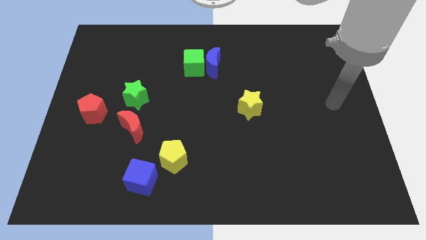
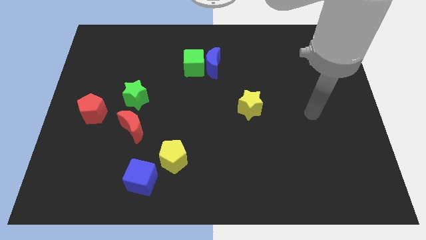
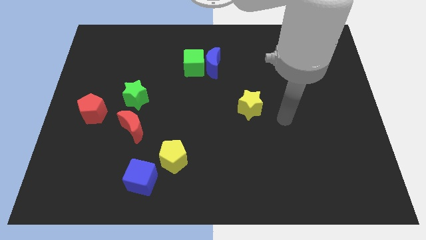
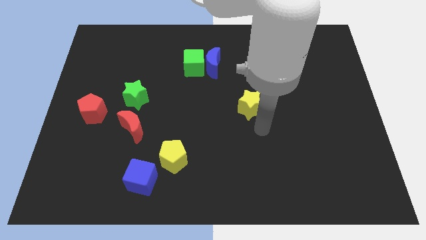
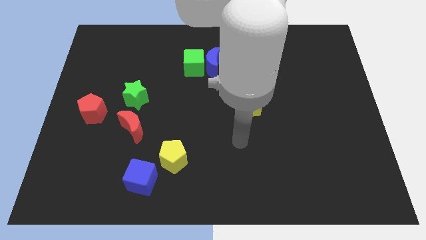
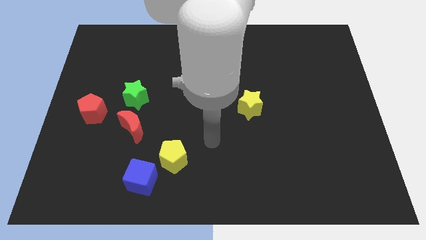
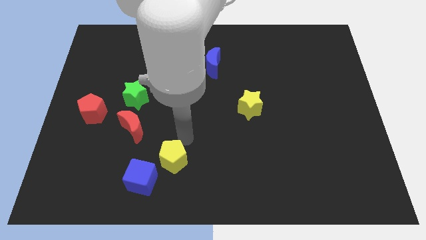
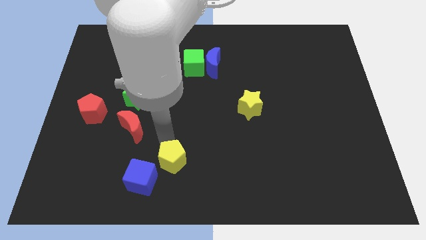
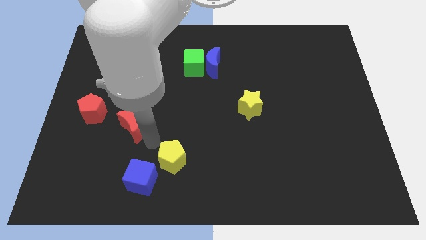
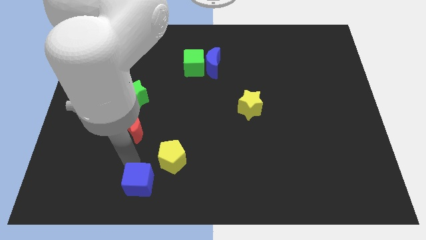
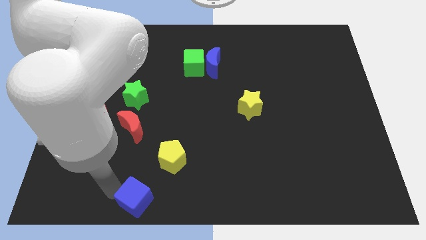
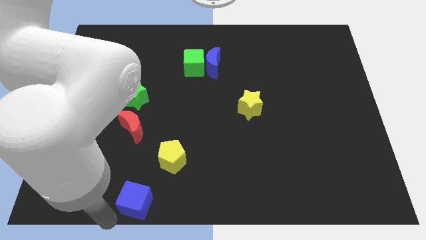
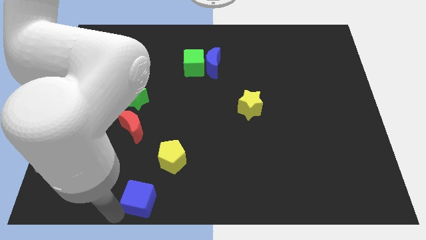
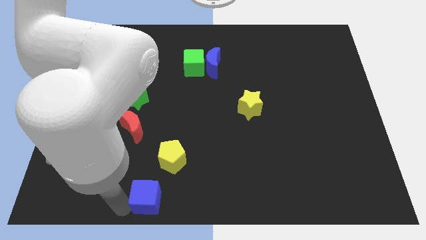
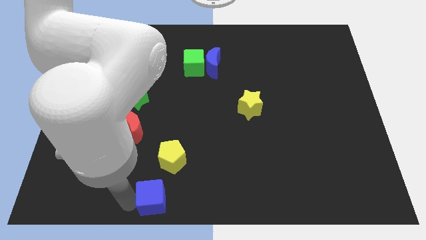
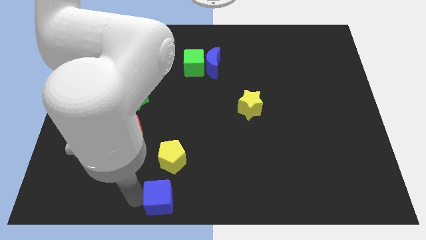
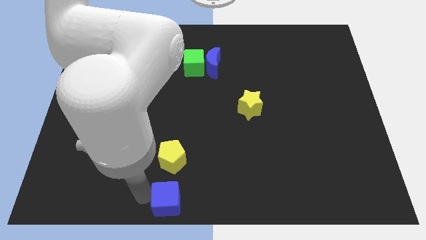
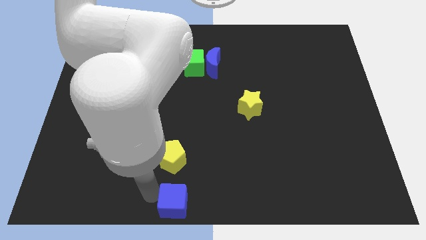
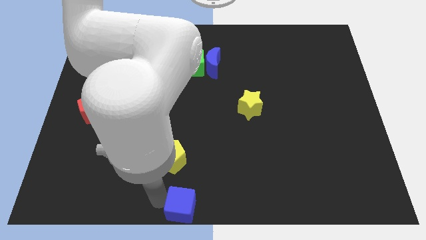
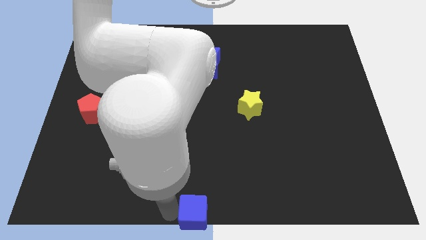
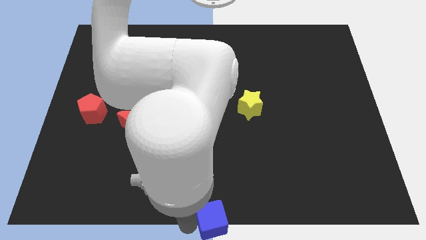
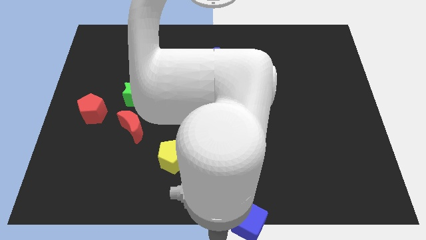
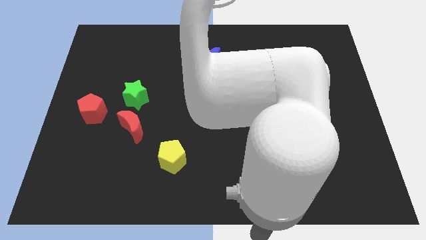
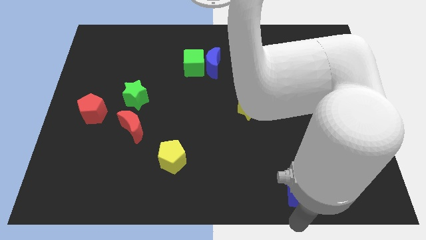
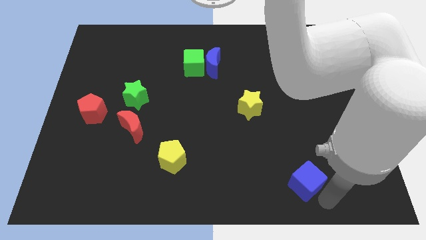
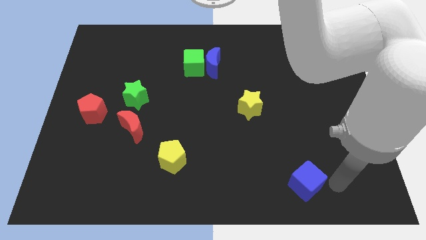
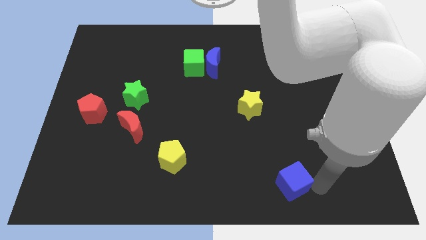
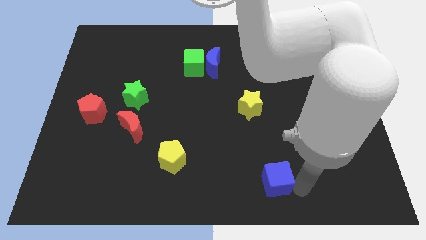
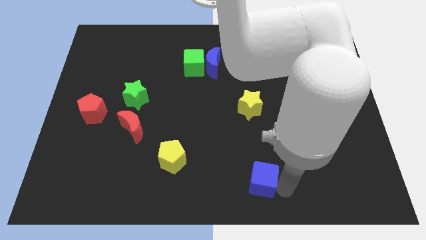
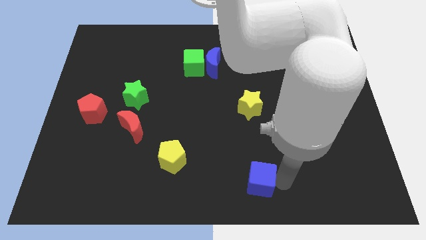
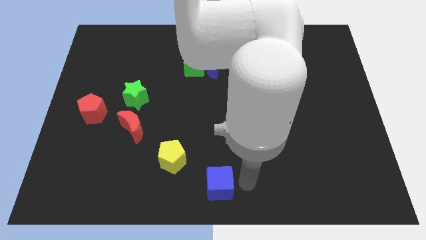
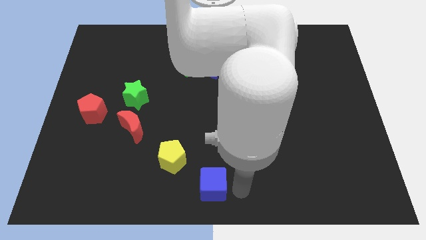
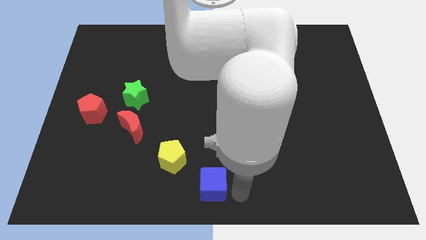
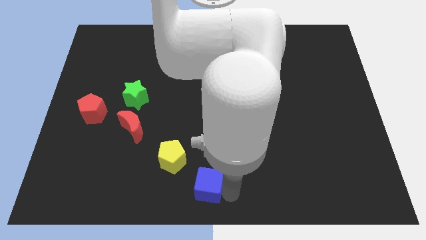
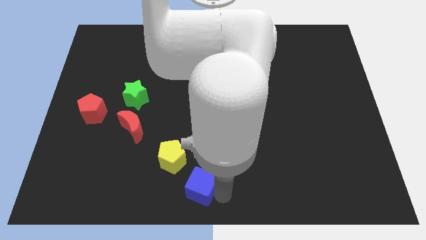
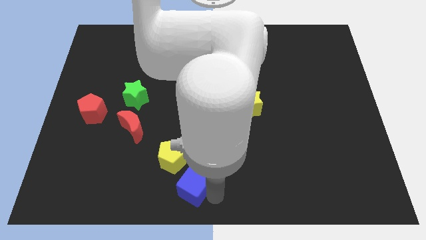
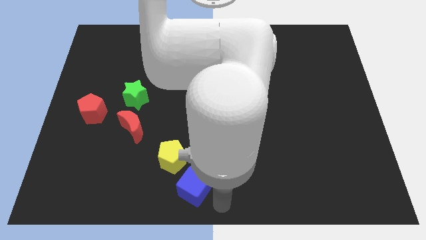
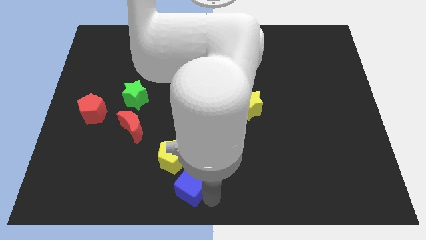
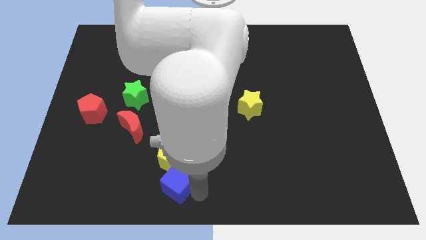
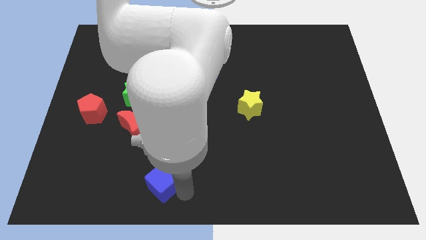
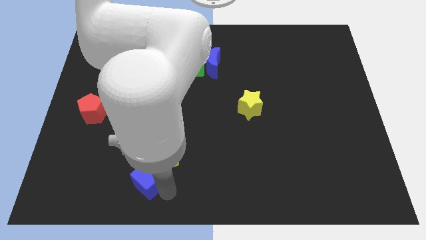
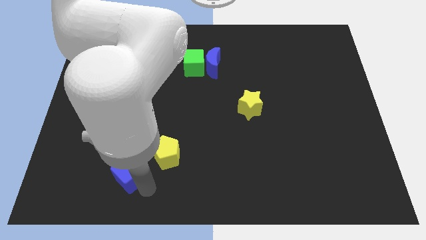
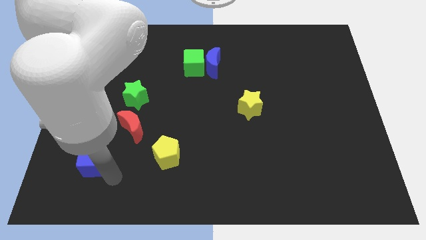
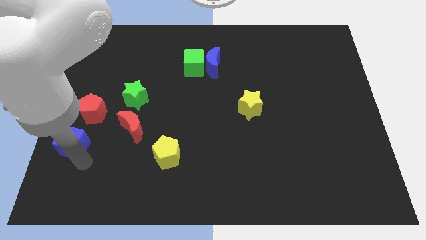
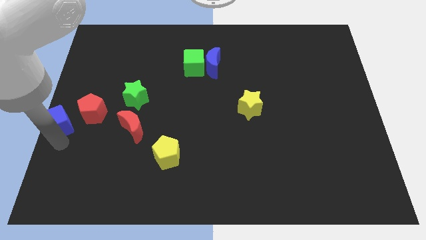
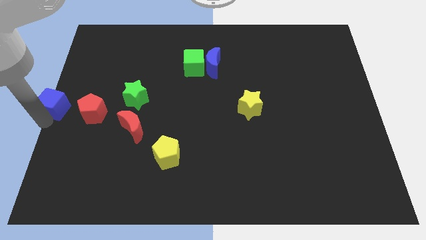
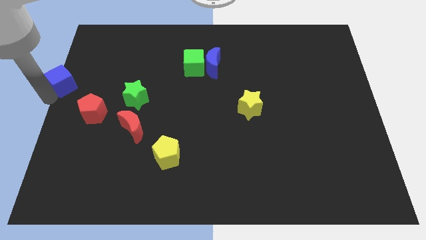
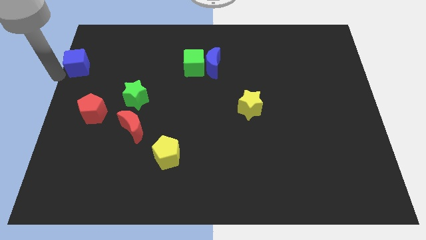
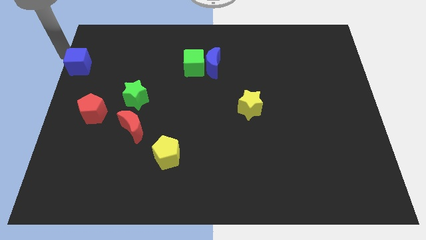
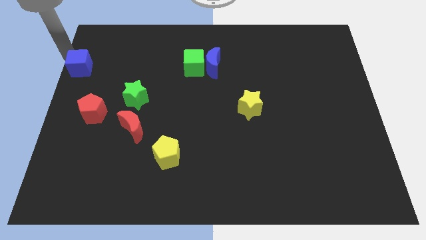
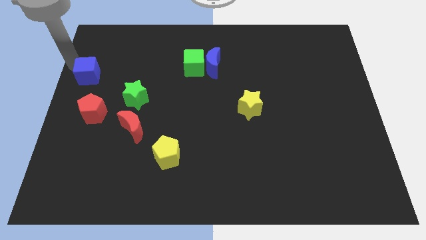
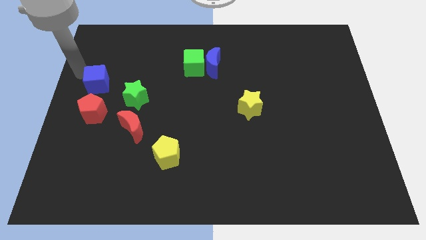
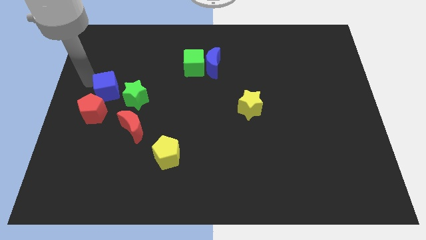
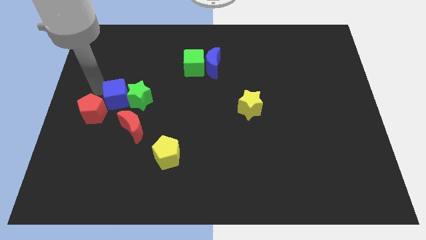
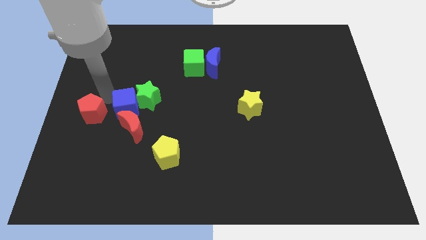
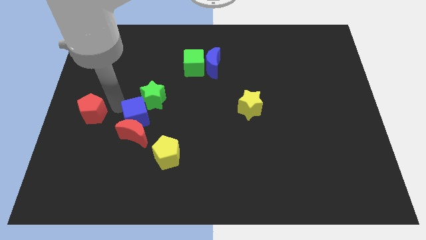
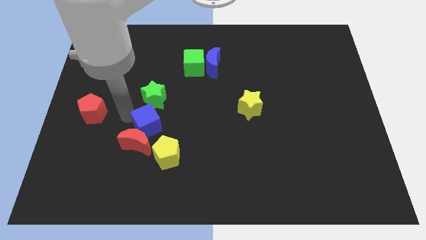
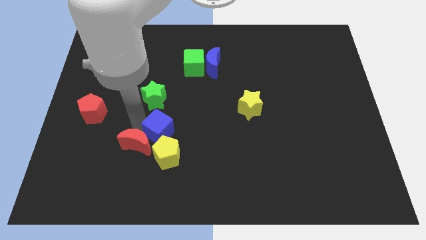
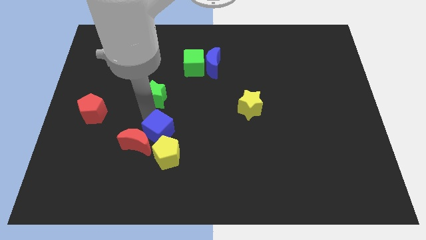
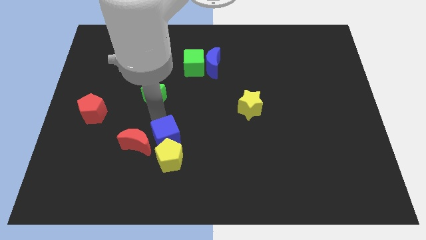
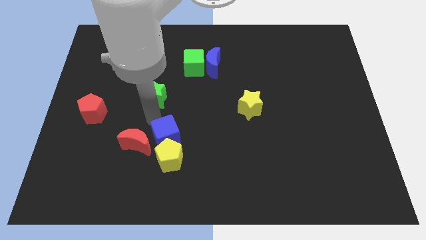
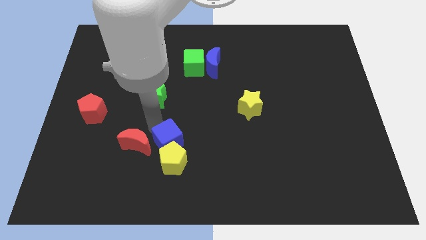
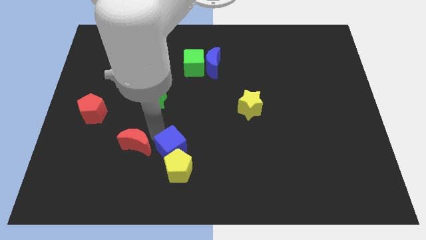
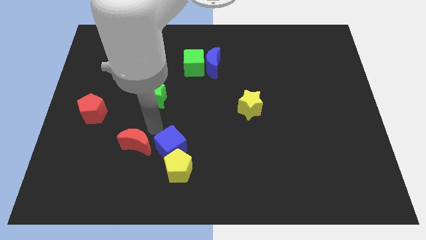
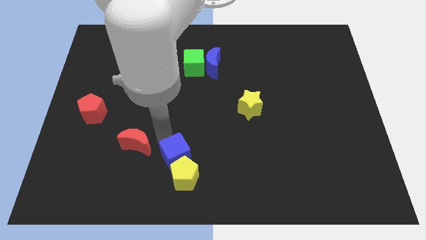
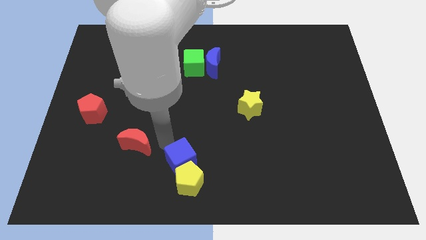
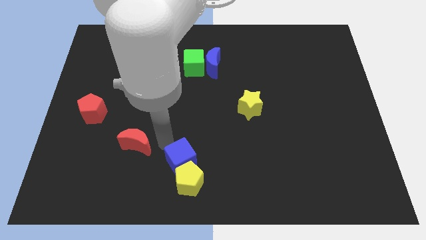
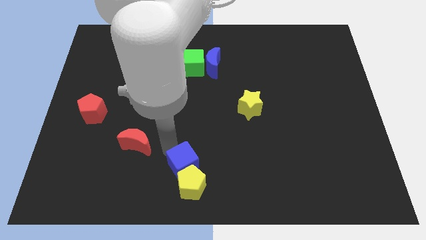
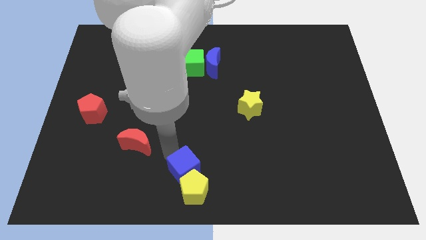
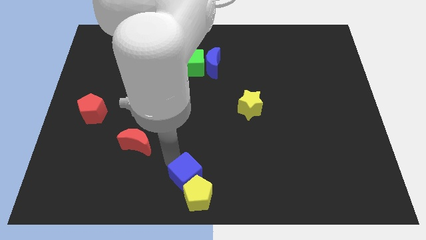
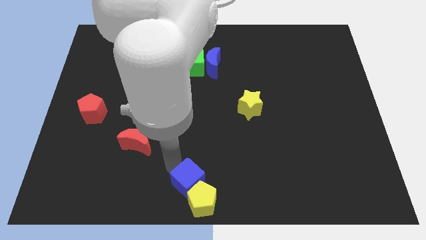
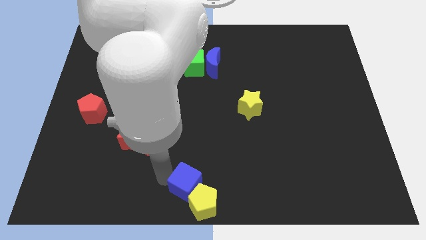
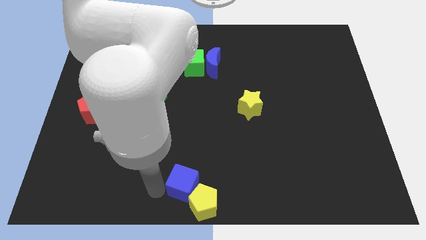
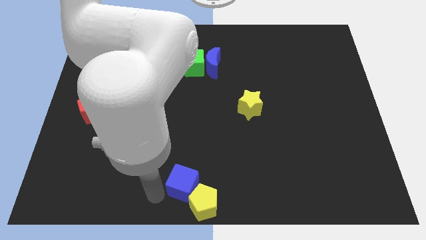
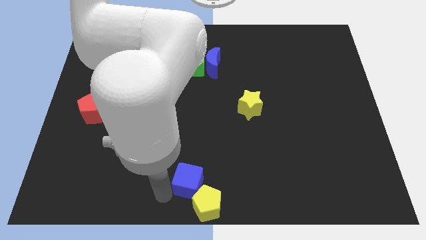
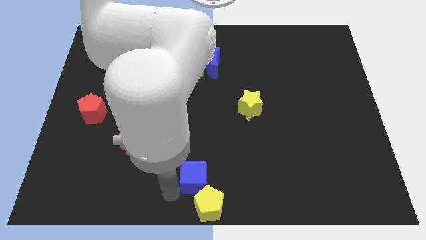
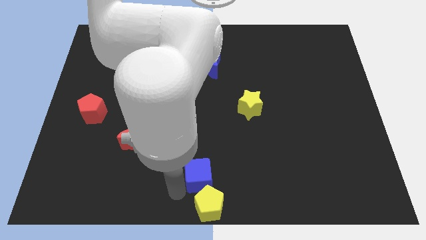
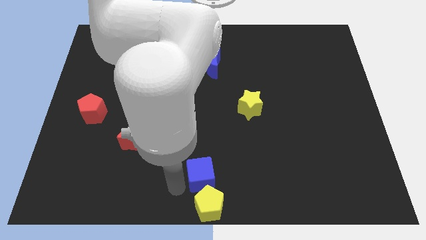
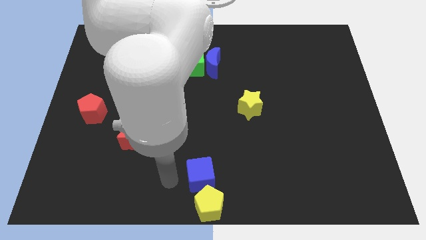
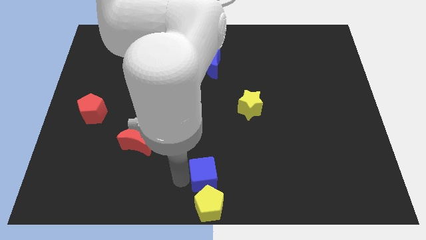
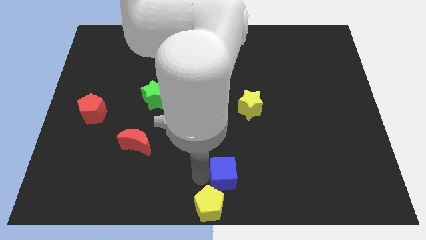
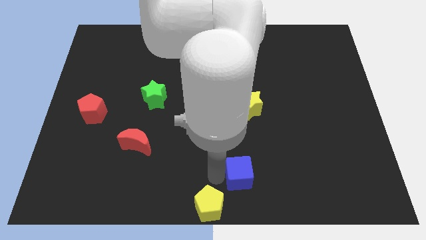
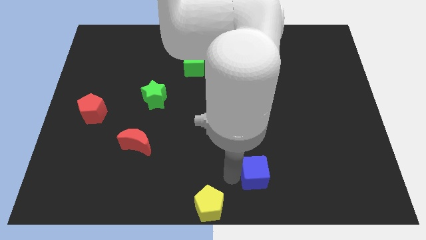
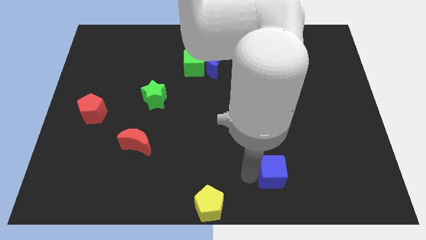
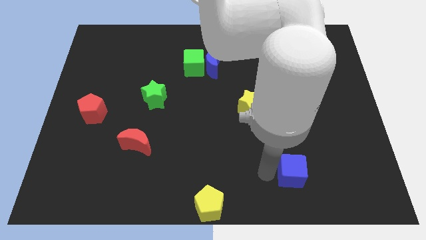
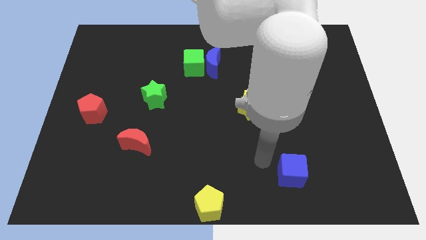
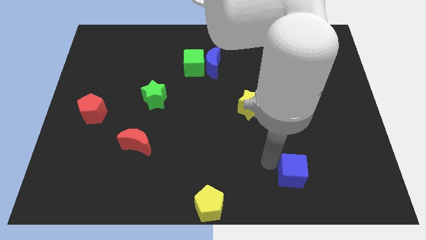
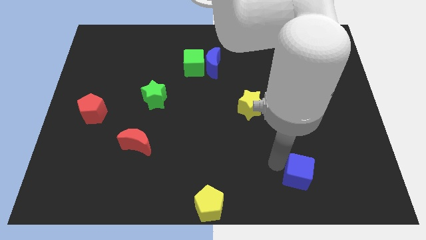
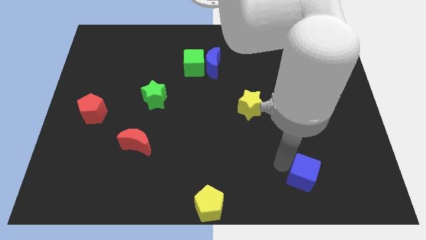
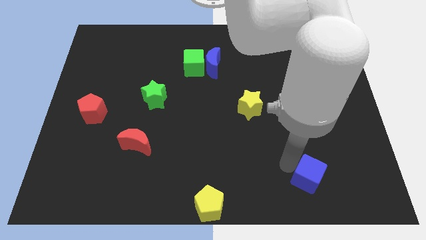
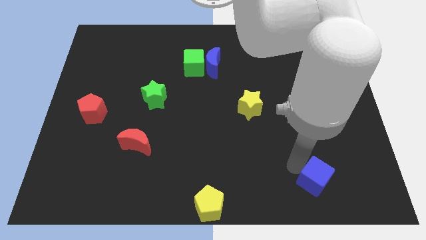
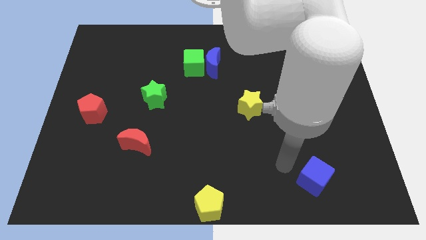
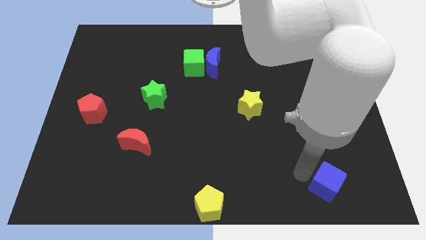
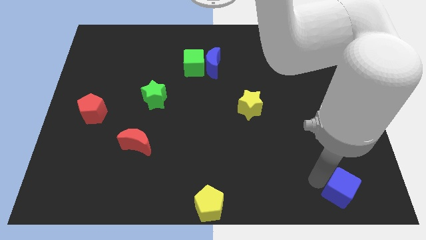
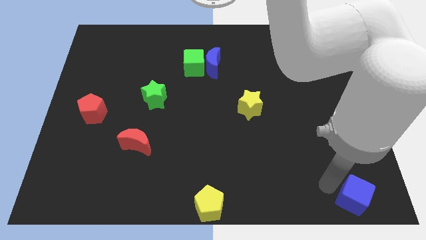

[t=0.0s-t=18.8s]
slide the blue cube to the bottom right corner
